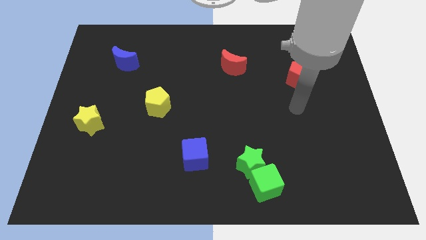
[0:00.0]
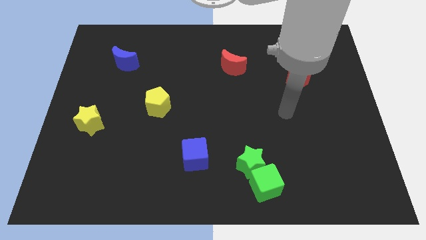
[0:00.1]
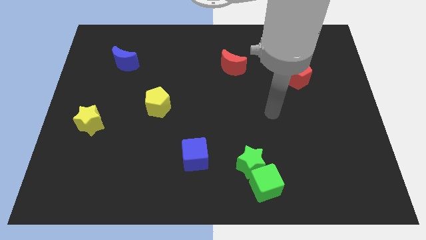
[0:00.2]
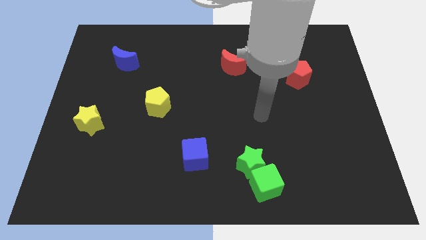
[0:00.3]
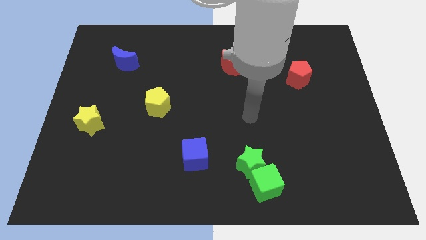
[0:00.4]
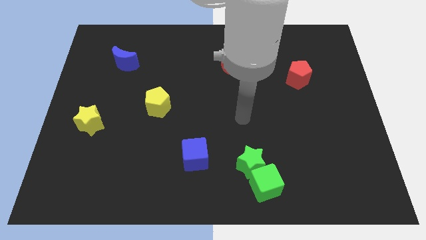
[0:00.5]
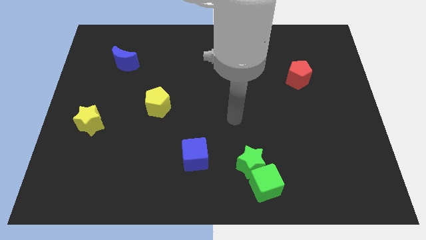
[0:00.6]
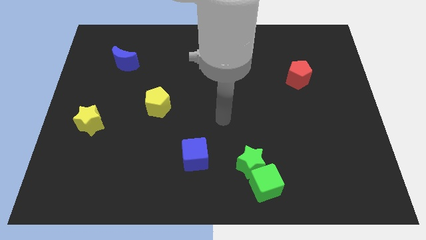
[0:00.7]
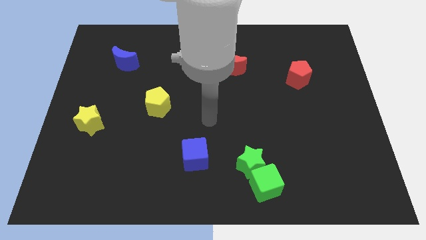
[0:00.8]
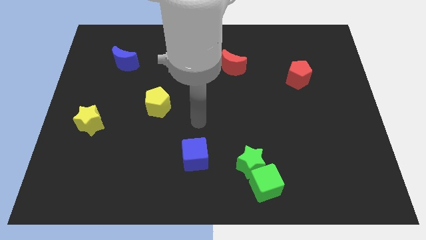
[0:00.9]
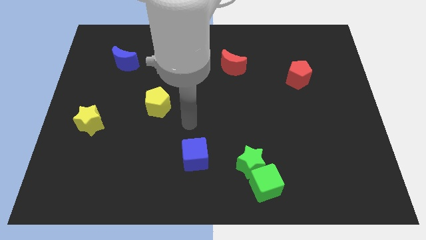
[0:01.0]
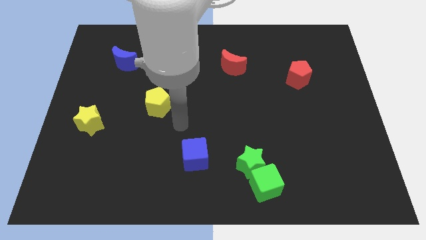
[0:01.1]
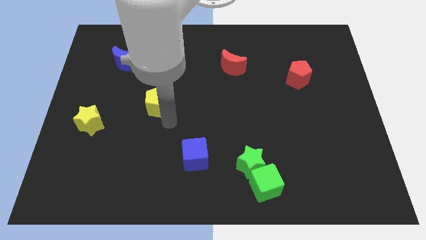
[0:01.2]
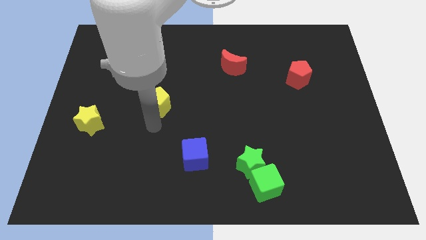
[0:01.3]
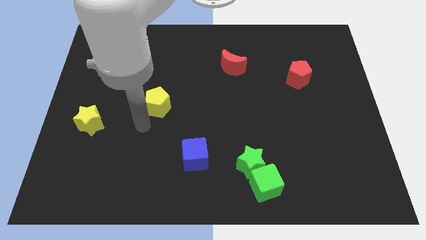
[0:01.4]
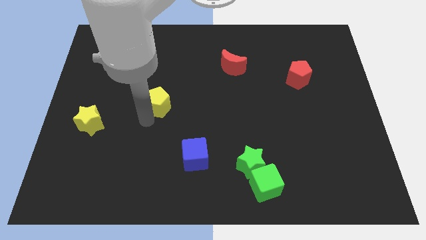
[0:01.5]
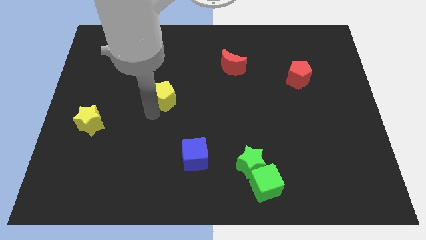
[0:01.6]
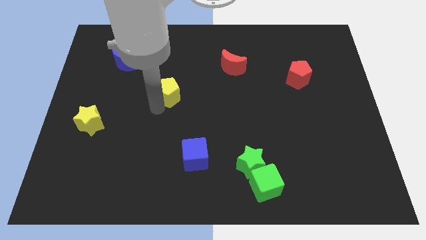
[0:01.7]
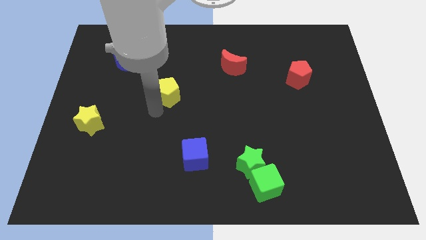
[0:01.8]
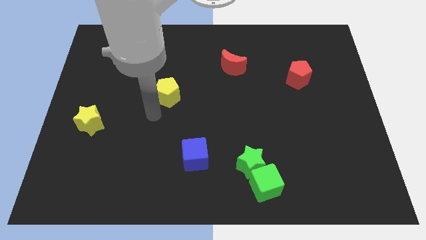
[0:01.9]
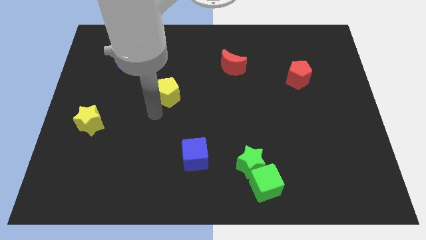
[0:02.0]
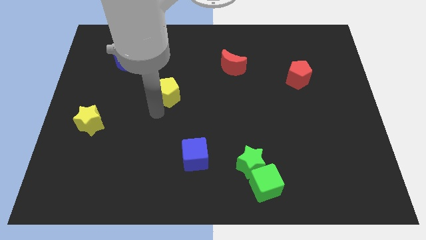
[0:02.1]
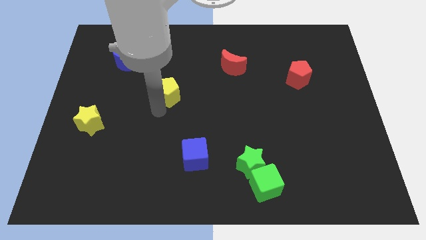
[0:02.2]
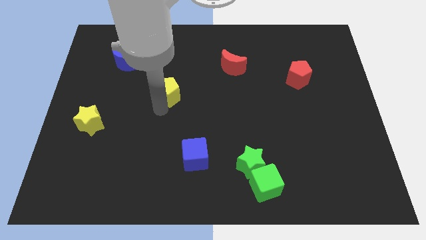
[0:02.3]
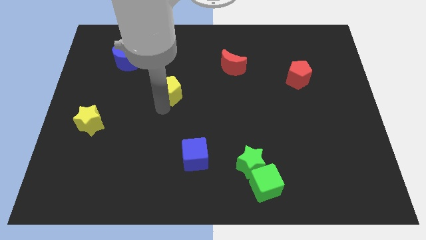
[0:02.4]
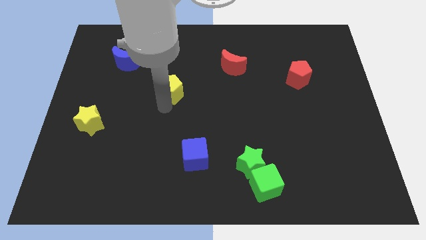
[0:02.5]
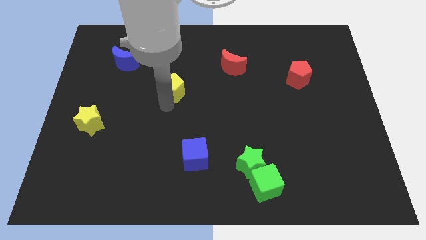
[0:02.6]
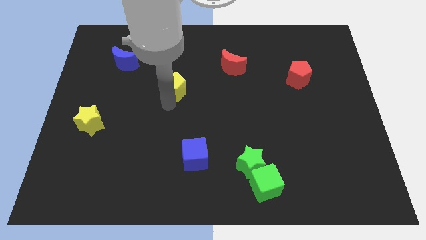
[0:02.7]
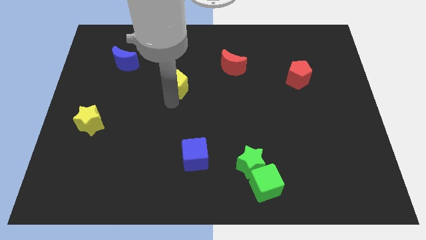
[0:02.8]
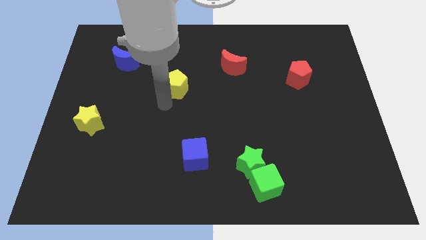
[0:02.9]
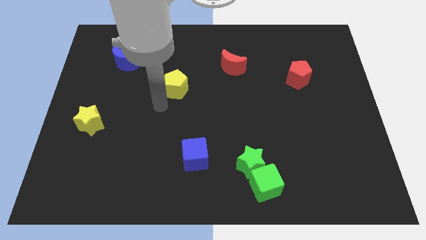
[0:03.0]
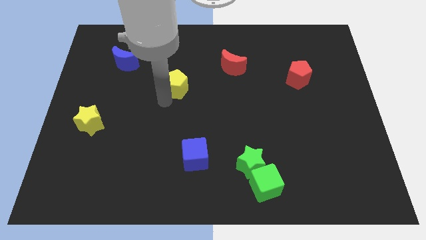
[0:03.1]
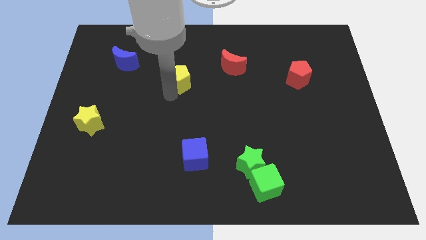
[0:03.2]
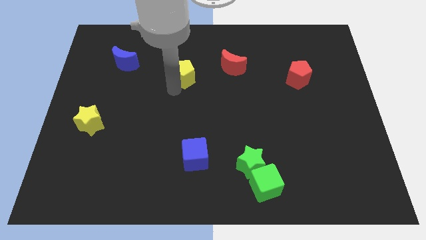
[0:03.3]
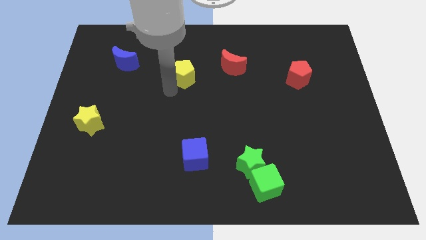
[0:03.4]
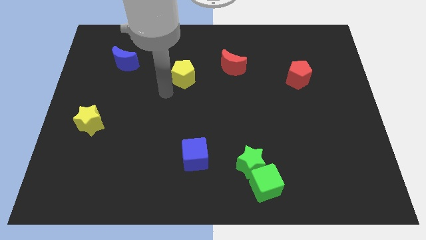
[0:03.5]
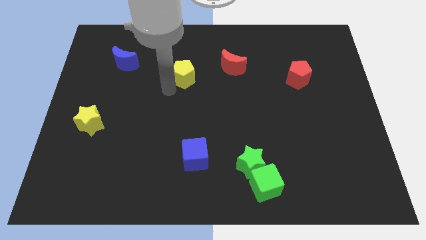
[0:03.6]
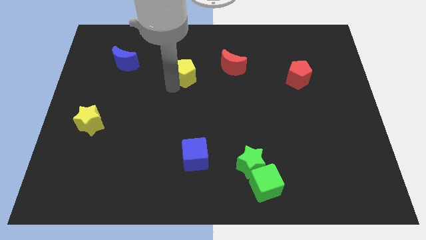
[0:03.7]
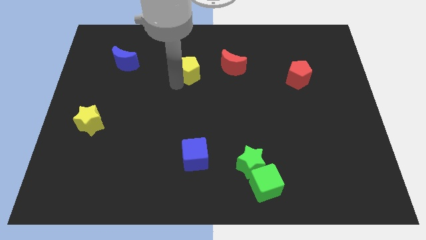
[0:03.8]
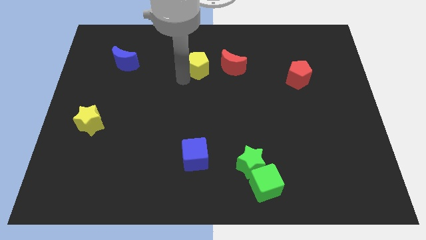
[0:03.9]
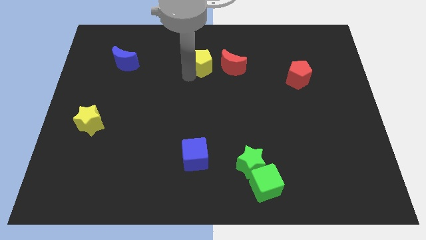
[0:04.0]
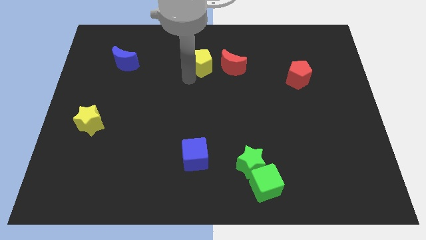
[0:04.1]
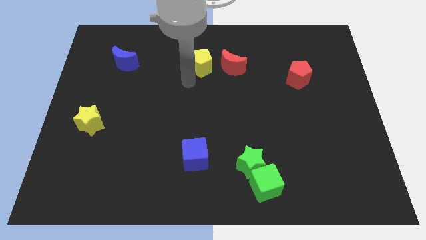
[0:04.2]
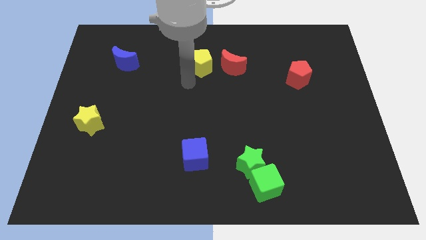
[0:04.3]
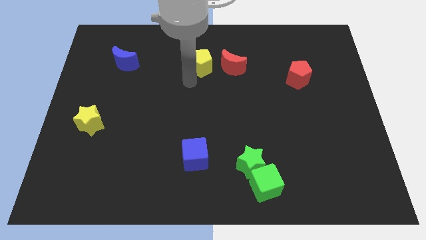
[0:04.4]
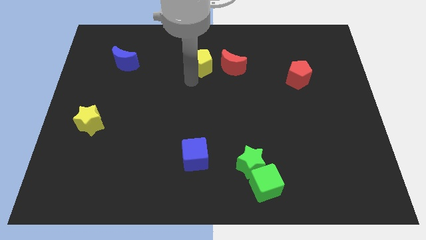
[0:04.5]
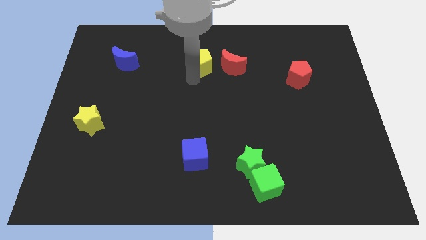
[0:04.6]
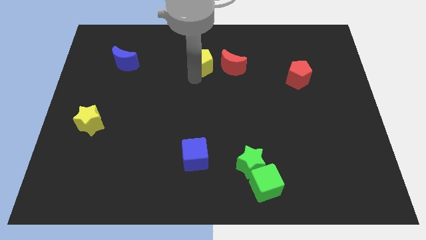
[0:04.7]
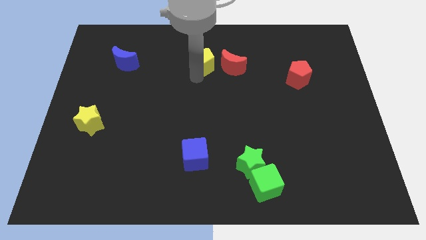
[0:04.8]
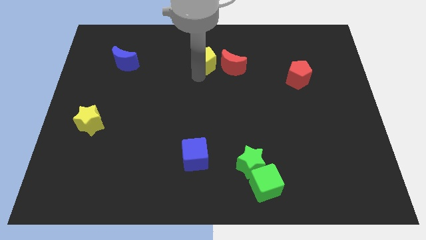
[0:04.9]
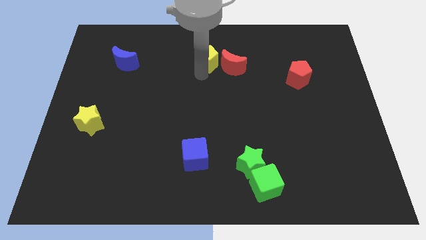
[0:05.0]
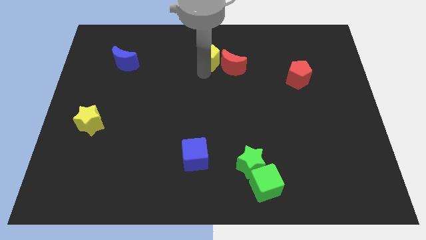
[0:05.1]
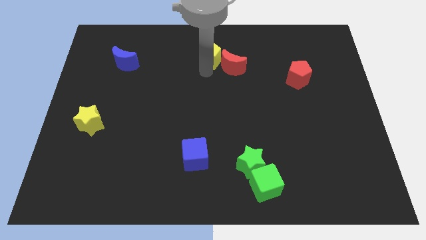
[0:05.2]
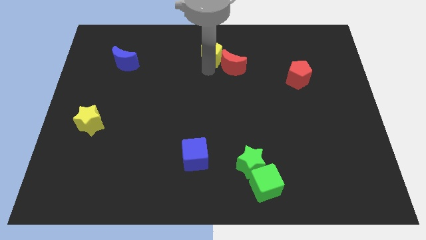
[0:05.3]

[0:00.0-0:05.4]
push the yellow pentagon to the top

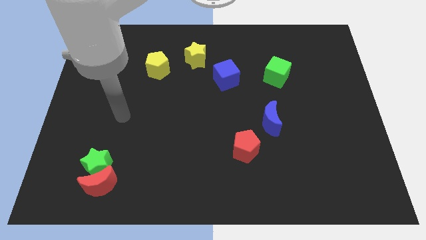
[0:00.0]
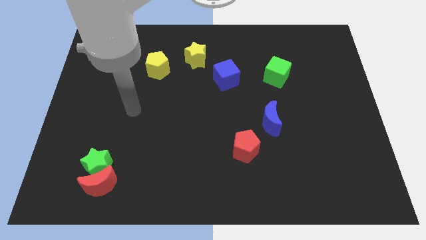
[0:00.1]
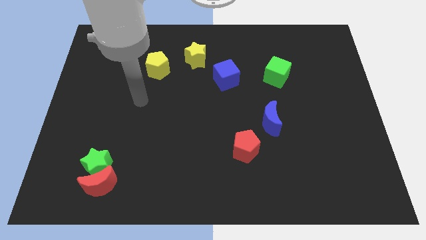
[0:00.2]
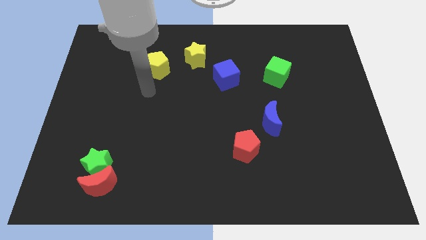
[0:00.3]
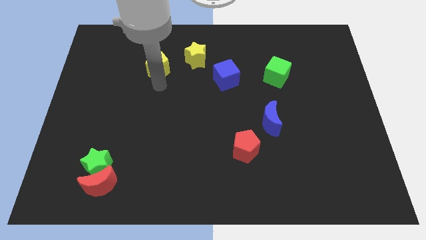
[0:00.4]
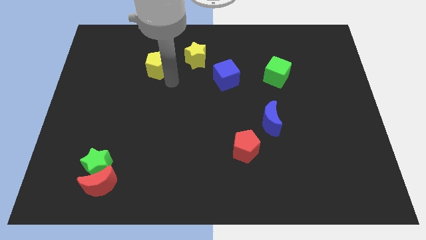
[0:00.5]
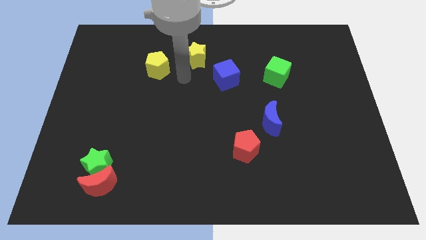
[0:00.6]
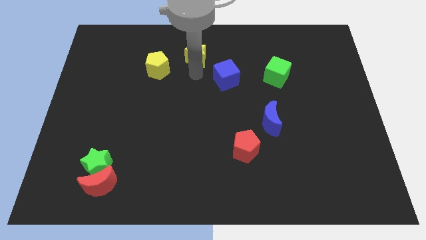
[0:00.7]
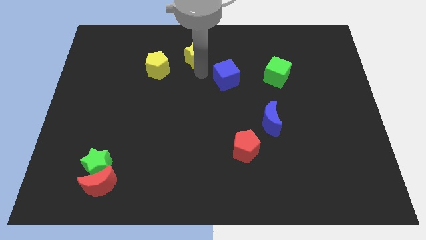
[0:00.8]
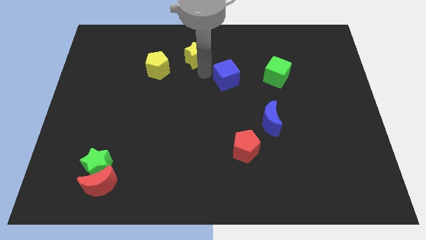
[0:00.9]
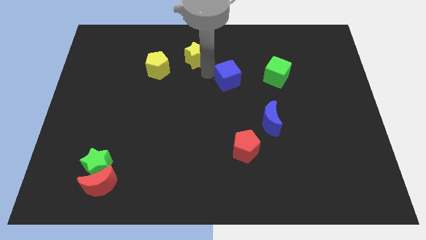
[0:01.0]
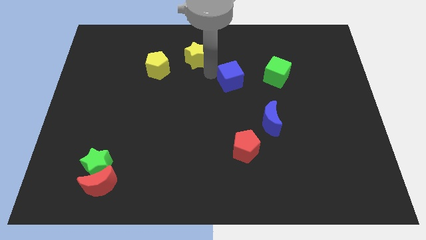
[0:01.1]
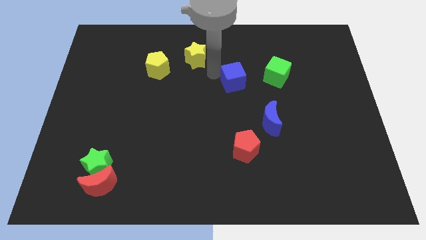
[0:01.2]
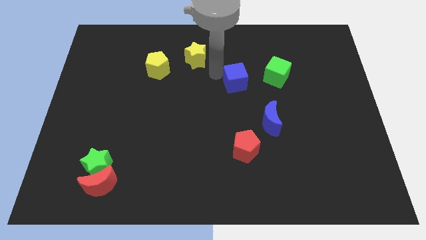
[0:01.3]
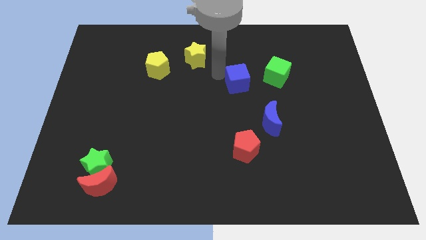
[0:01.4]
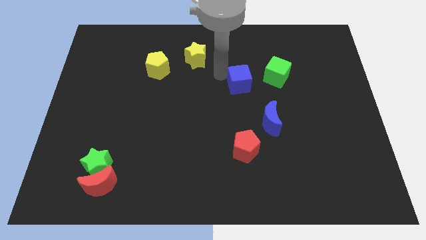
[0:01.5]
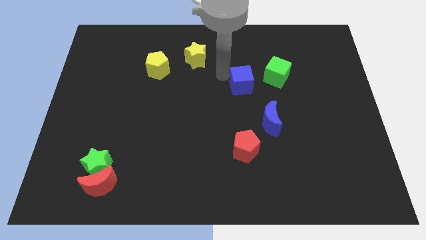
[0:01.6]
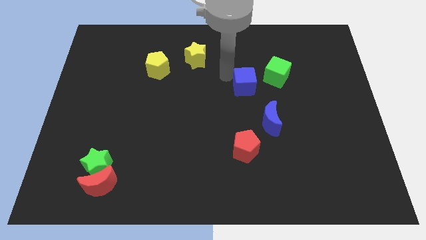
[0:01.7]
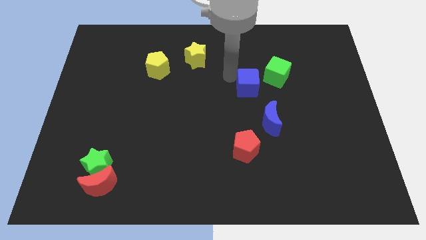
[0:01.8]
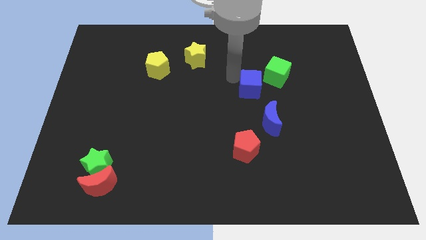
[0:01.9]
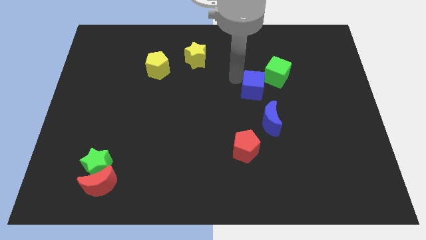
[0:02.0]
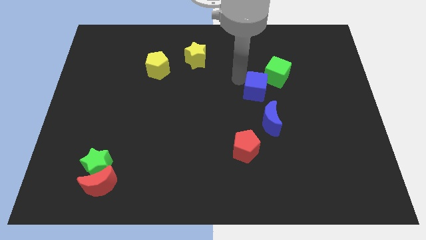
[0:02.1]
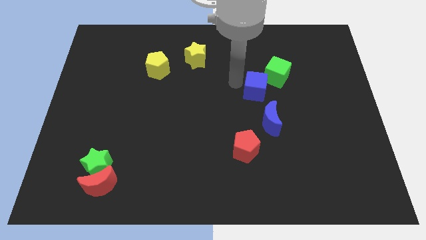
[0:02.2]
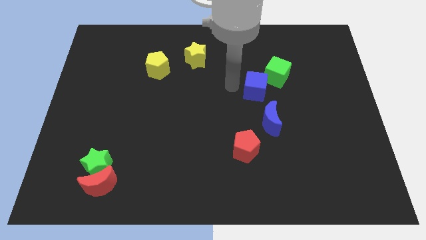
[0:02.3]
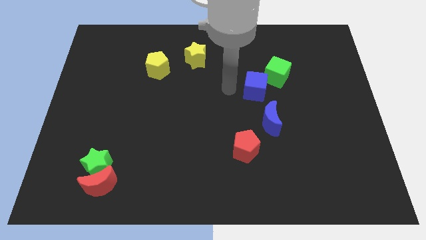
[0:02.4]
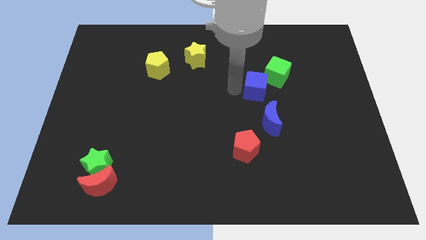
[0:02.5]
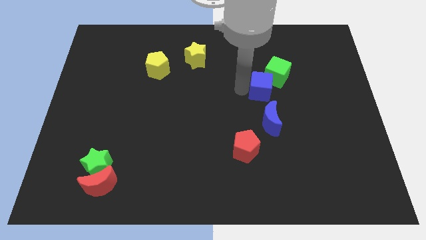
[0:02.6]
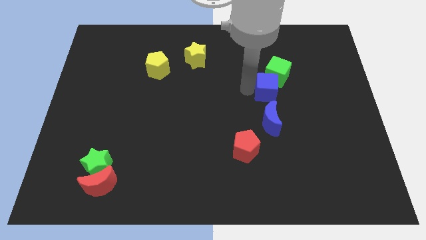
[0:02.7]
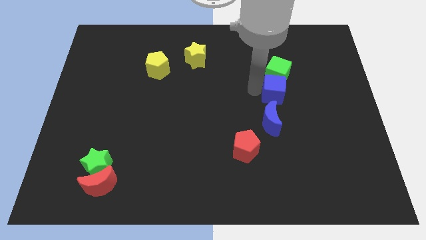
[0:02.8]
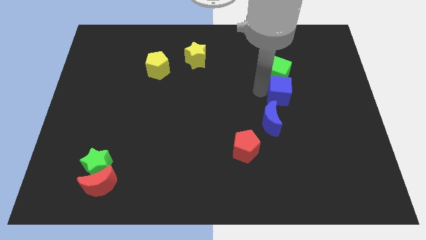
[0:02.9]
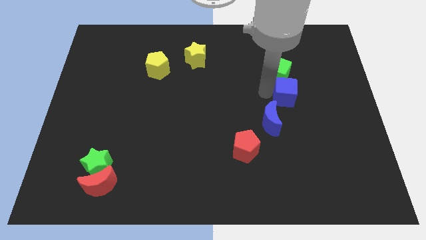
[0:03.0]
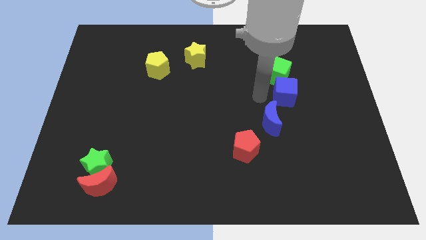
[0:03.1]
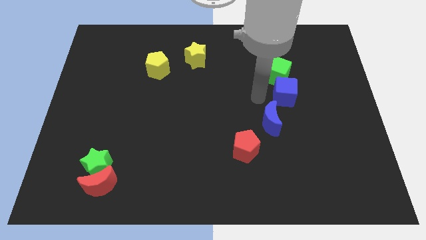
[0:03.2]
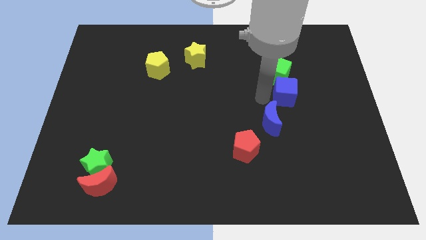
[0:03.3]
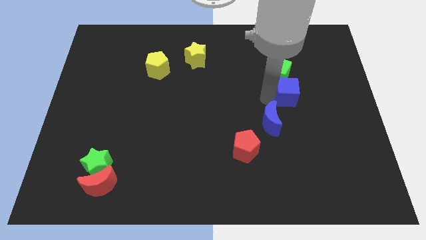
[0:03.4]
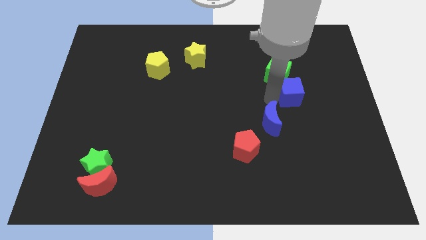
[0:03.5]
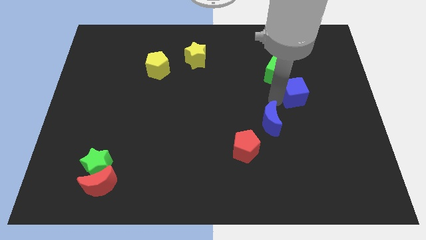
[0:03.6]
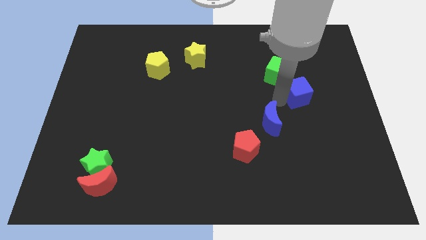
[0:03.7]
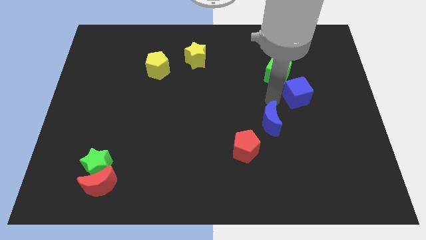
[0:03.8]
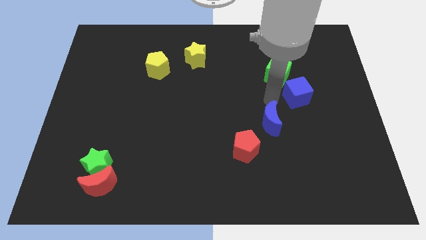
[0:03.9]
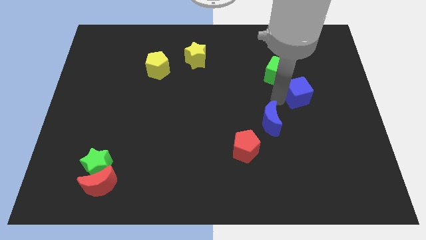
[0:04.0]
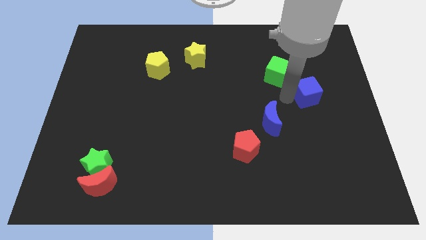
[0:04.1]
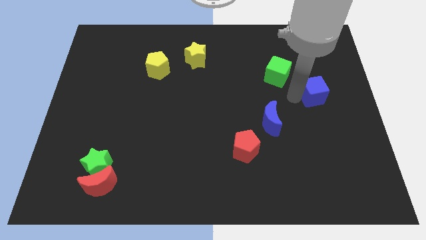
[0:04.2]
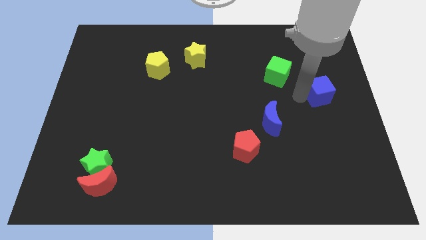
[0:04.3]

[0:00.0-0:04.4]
slide the blue cube to the right side
